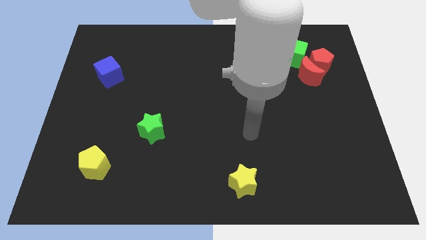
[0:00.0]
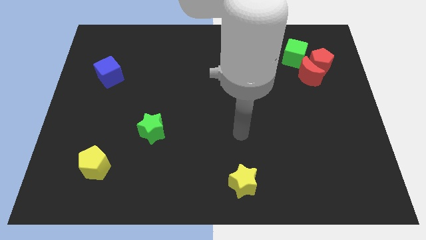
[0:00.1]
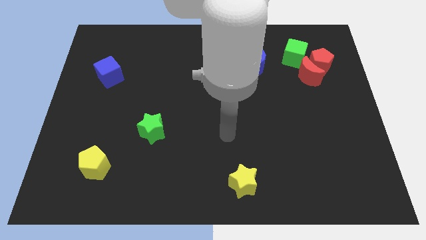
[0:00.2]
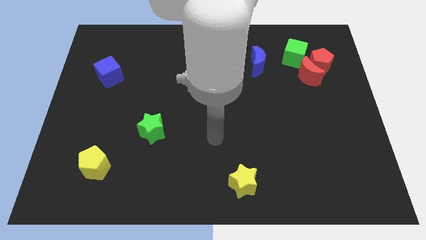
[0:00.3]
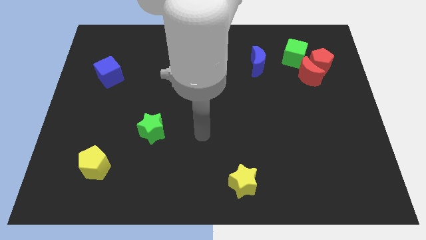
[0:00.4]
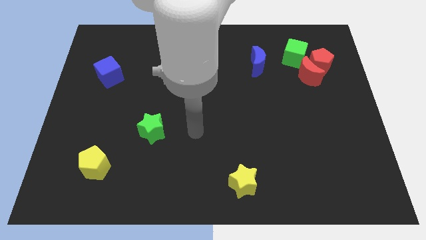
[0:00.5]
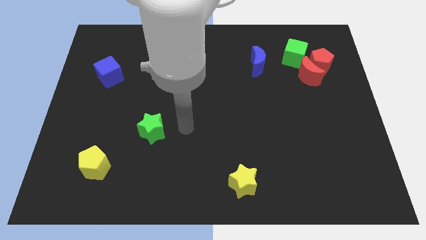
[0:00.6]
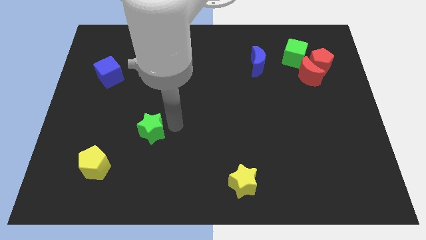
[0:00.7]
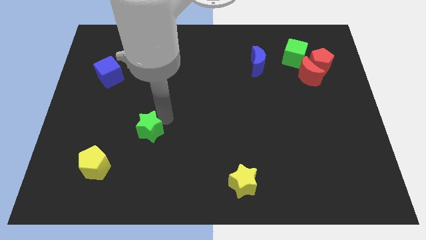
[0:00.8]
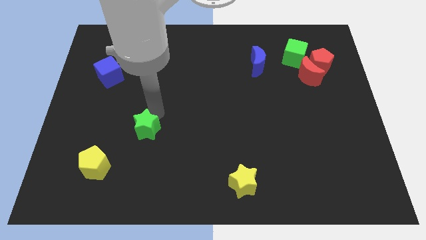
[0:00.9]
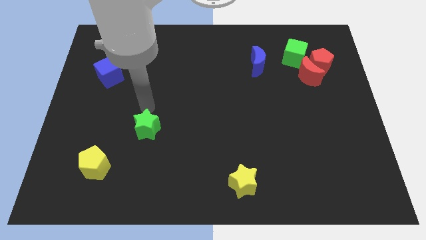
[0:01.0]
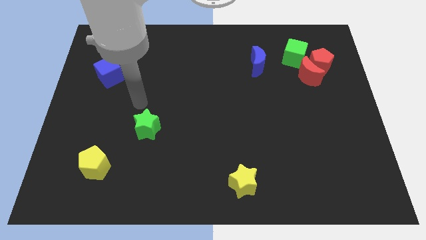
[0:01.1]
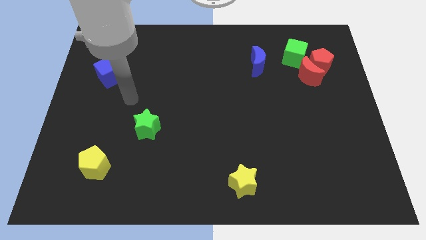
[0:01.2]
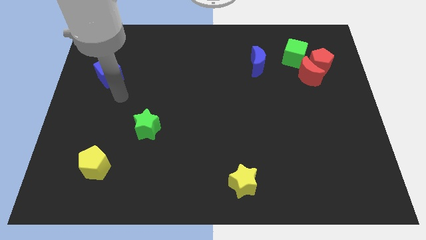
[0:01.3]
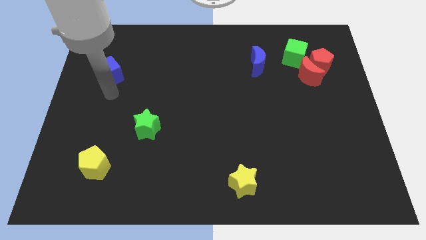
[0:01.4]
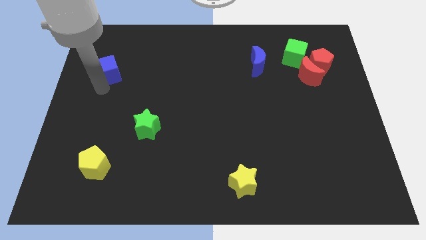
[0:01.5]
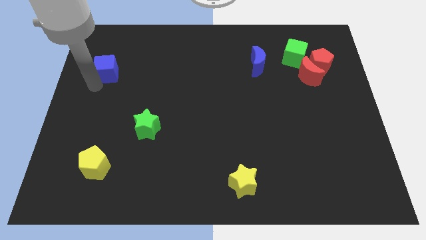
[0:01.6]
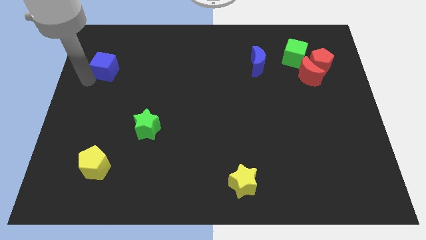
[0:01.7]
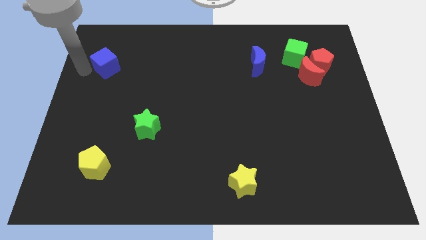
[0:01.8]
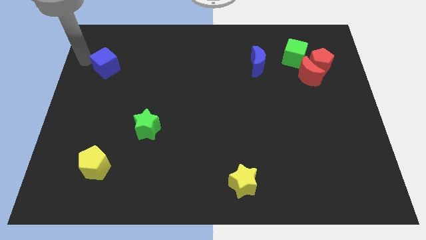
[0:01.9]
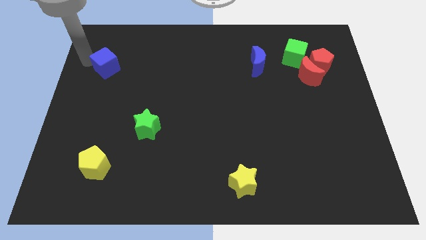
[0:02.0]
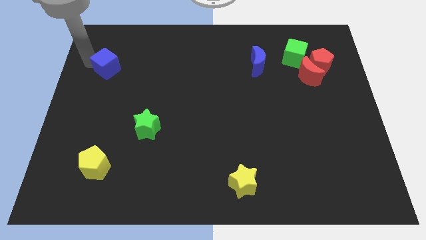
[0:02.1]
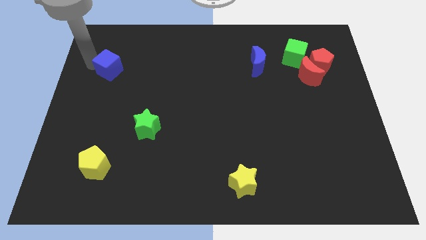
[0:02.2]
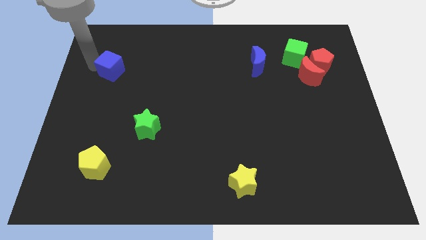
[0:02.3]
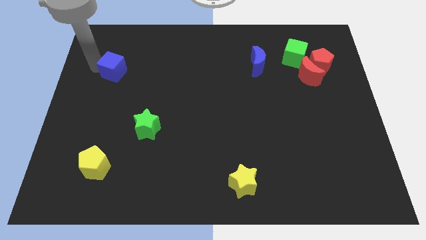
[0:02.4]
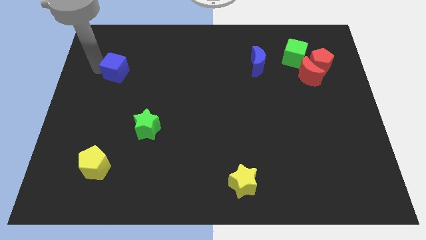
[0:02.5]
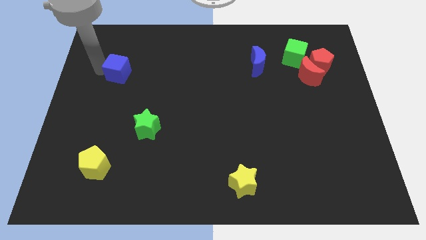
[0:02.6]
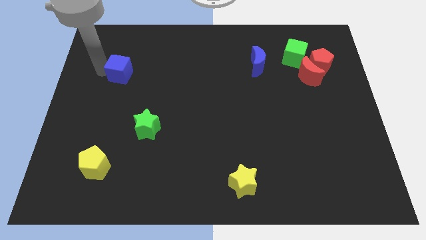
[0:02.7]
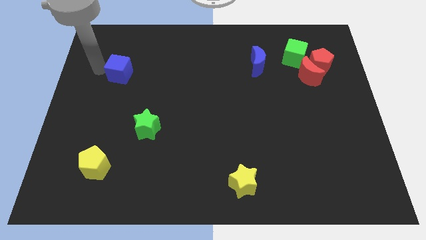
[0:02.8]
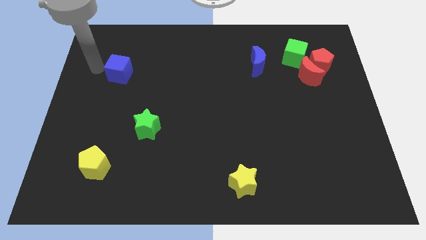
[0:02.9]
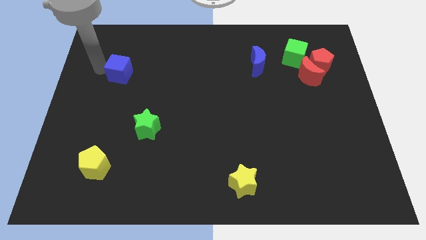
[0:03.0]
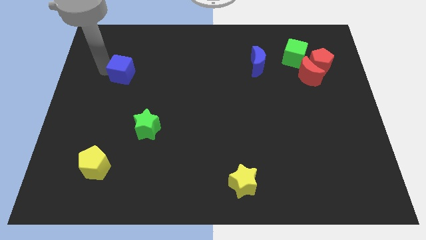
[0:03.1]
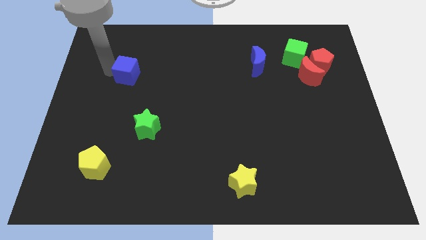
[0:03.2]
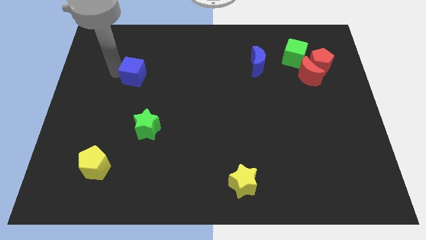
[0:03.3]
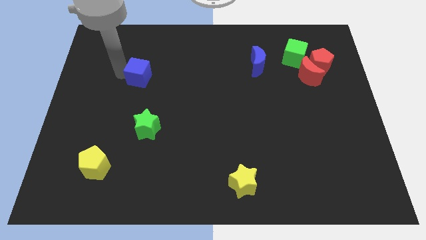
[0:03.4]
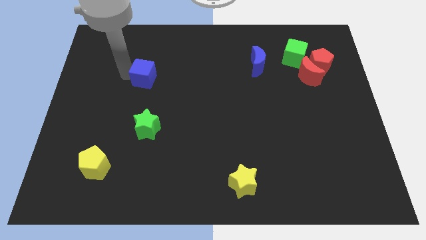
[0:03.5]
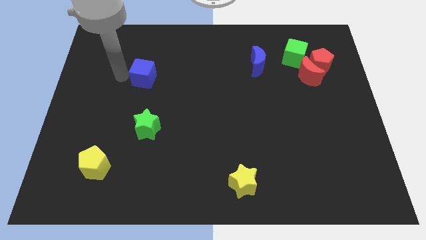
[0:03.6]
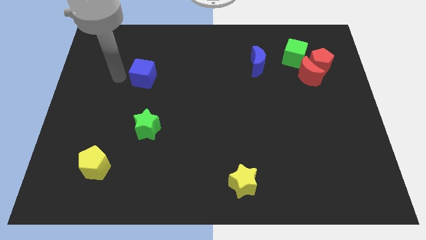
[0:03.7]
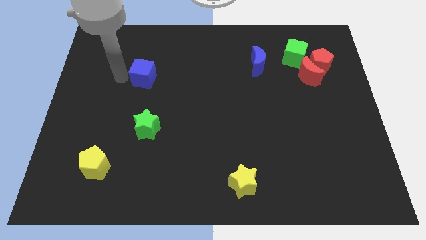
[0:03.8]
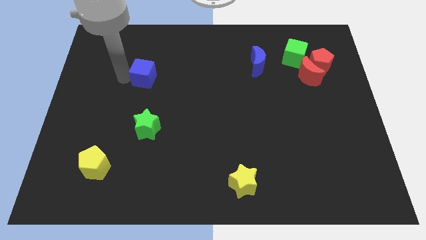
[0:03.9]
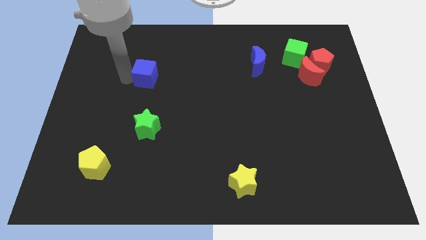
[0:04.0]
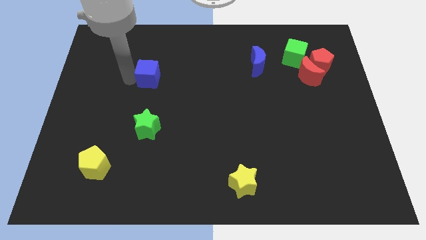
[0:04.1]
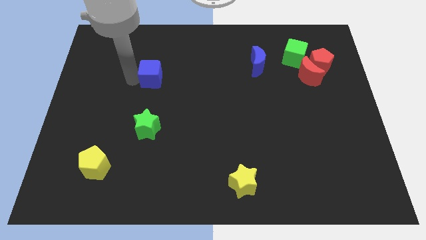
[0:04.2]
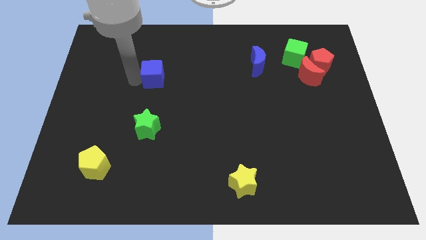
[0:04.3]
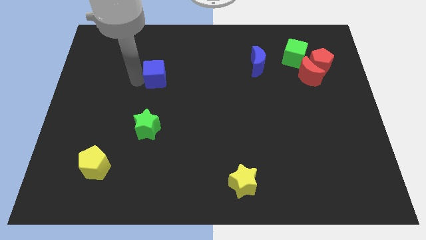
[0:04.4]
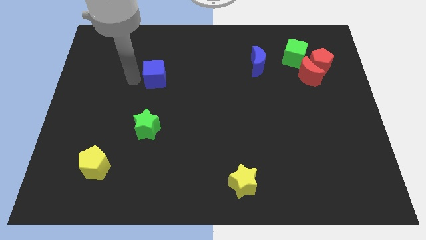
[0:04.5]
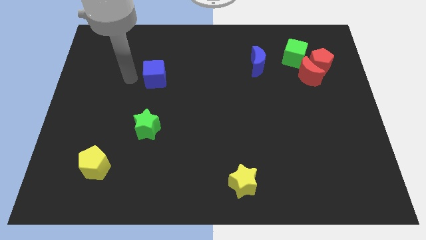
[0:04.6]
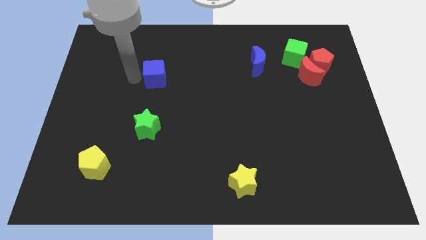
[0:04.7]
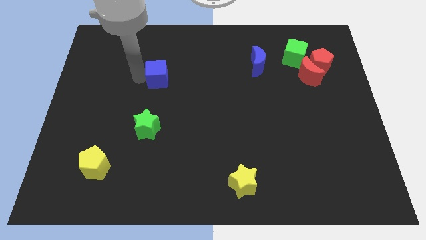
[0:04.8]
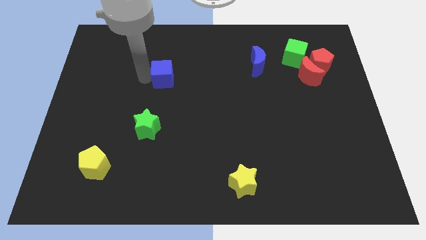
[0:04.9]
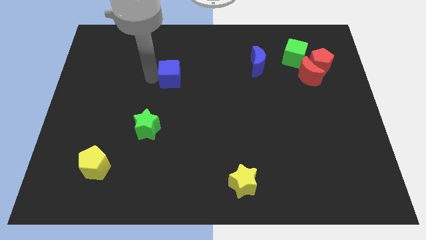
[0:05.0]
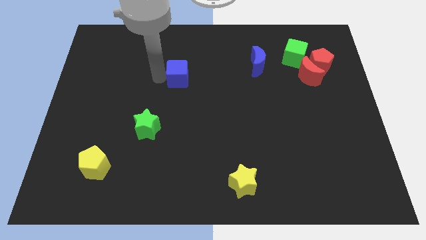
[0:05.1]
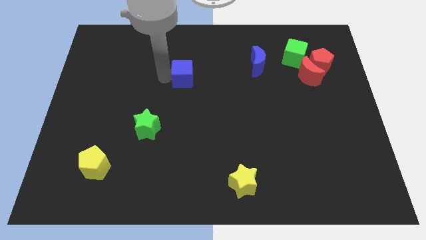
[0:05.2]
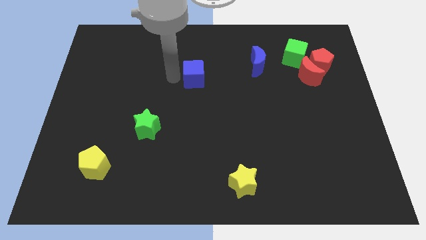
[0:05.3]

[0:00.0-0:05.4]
slide the blue cube right

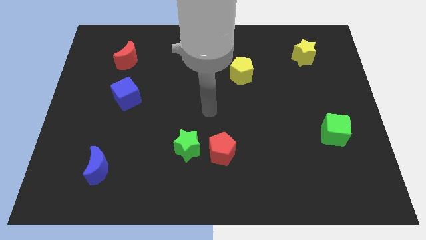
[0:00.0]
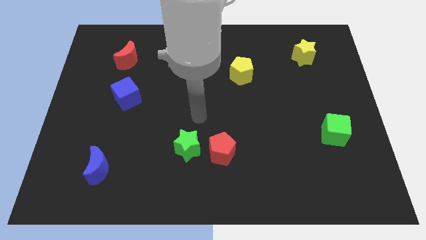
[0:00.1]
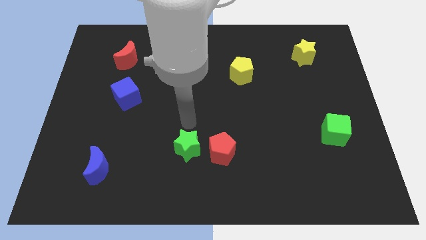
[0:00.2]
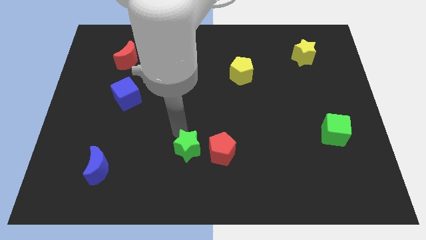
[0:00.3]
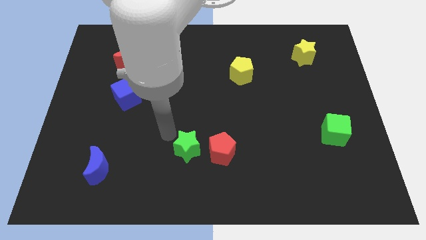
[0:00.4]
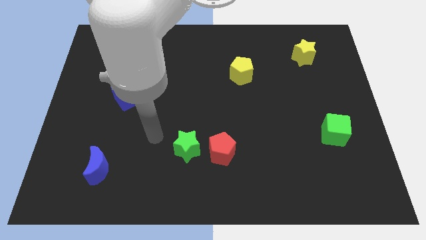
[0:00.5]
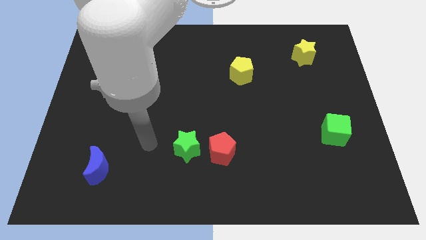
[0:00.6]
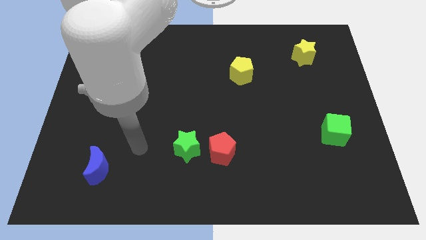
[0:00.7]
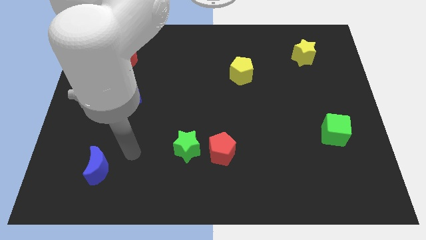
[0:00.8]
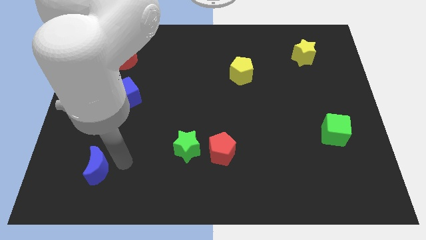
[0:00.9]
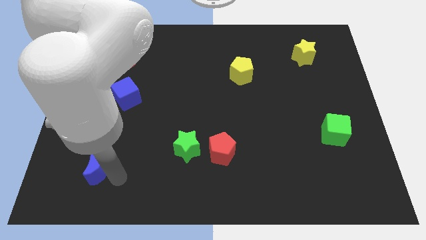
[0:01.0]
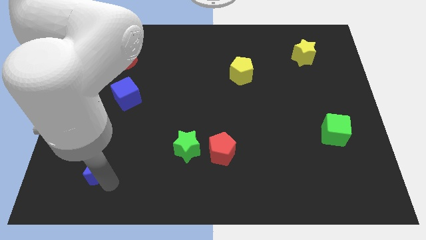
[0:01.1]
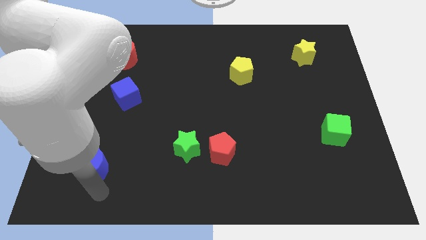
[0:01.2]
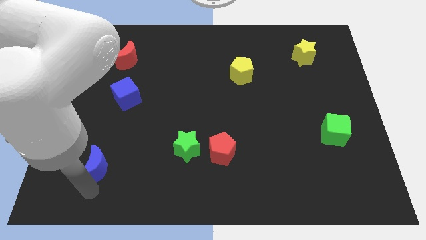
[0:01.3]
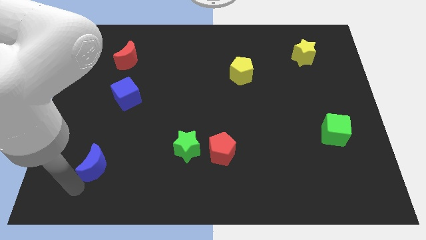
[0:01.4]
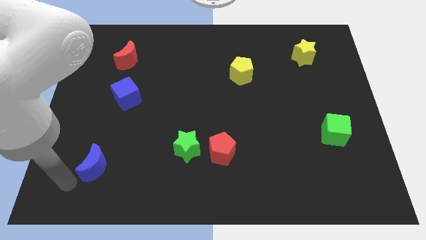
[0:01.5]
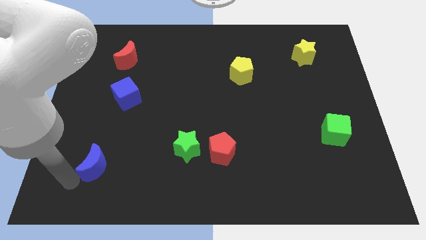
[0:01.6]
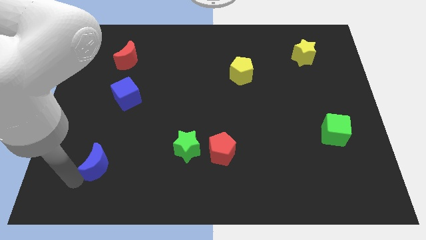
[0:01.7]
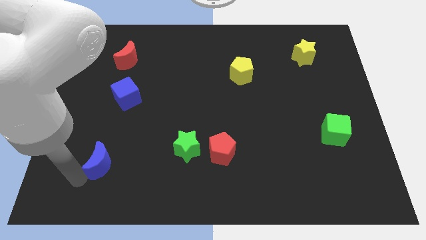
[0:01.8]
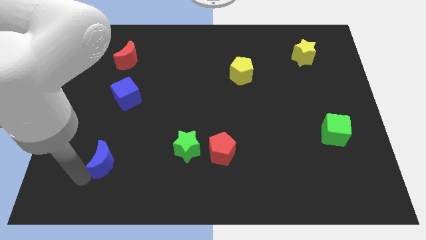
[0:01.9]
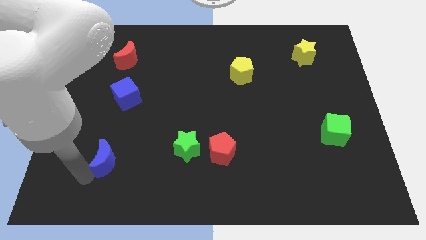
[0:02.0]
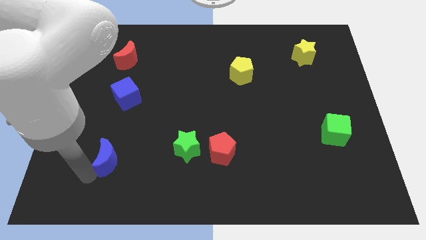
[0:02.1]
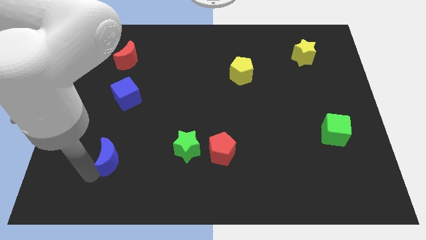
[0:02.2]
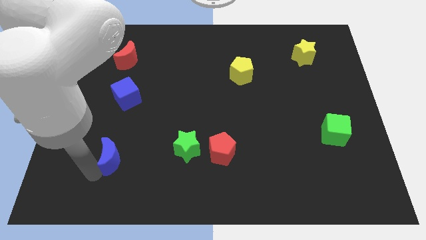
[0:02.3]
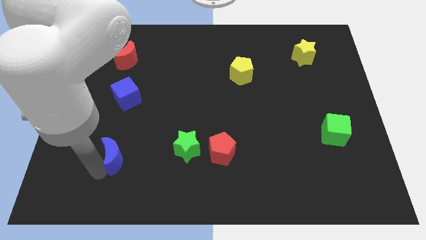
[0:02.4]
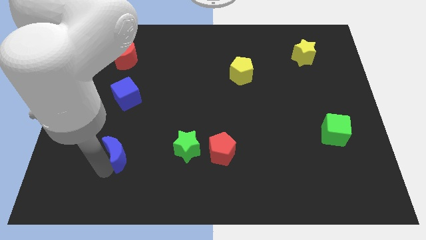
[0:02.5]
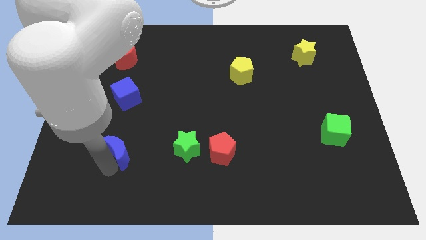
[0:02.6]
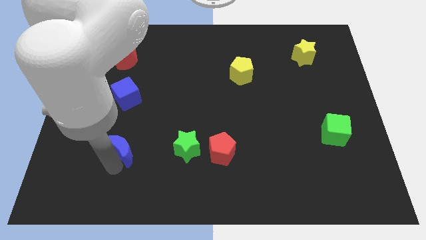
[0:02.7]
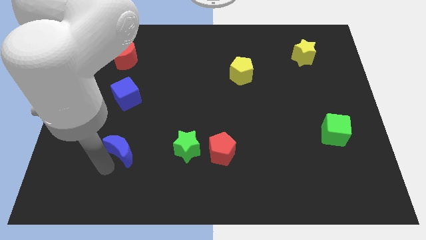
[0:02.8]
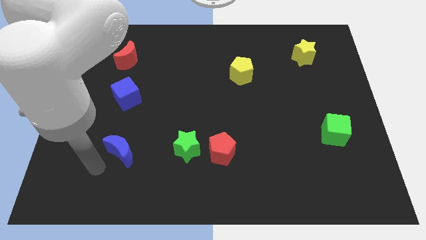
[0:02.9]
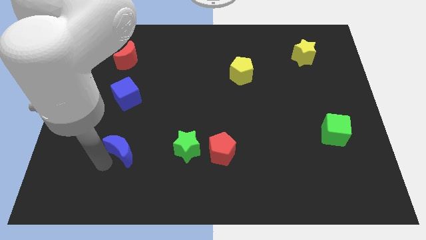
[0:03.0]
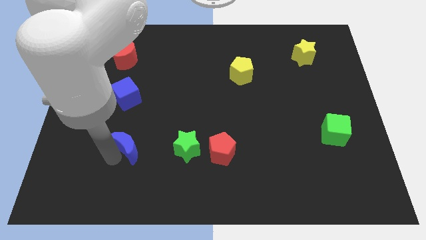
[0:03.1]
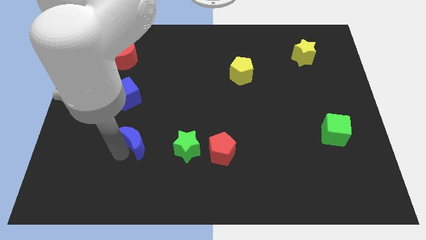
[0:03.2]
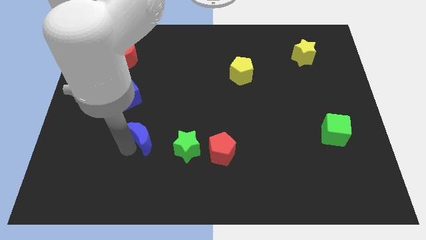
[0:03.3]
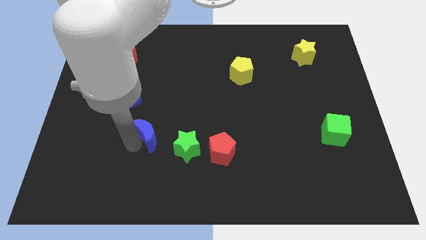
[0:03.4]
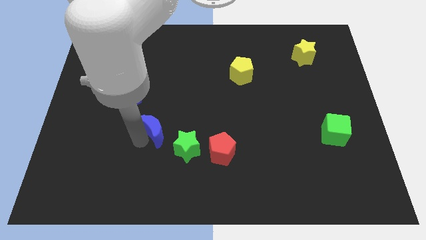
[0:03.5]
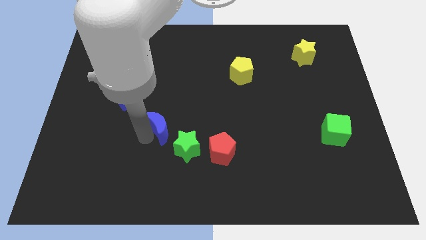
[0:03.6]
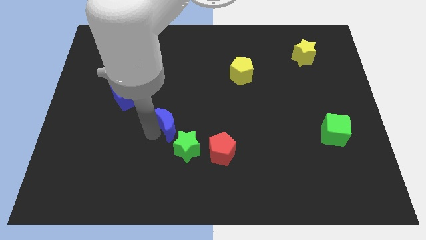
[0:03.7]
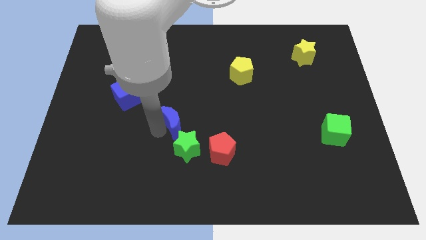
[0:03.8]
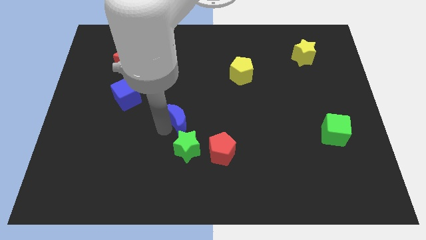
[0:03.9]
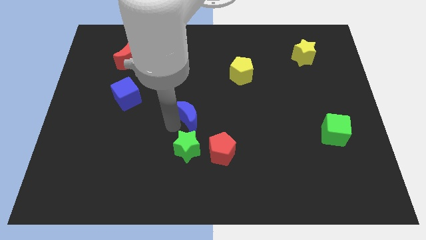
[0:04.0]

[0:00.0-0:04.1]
slide the blue moon upwards and to the right diagonally
